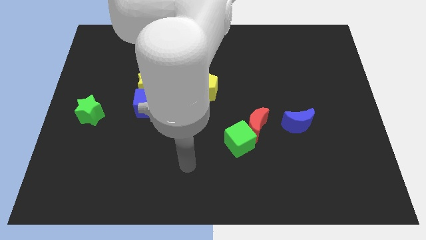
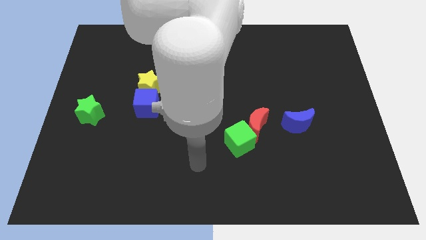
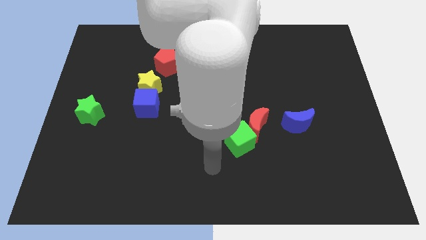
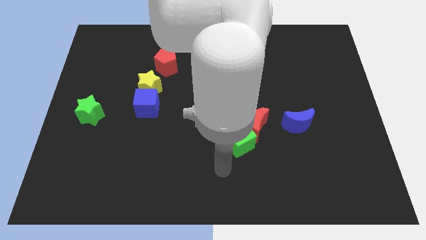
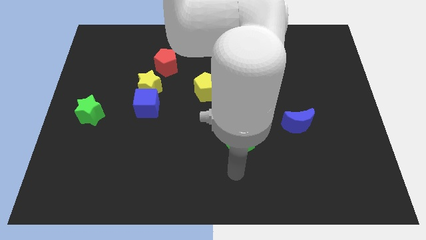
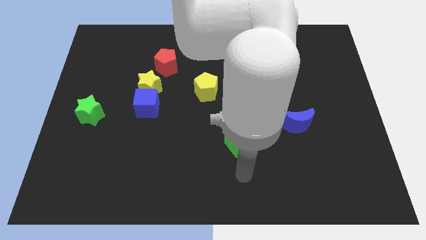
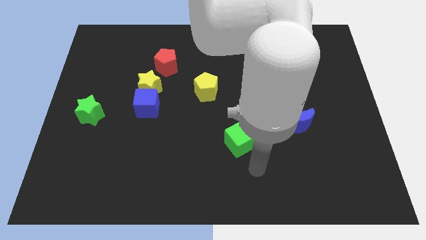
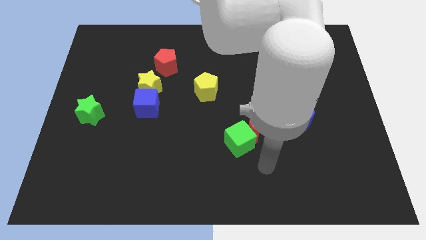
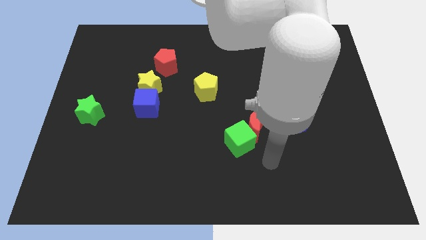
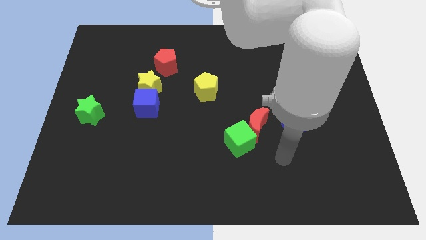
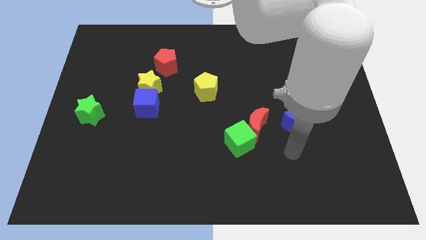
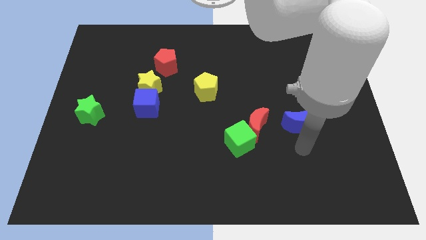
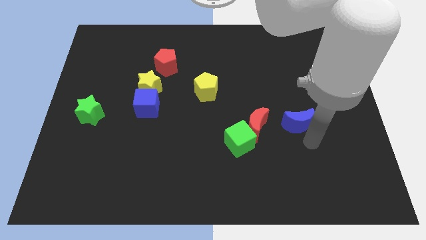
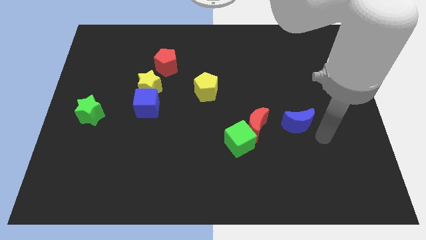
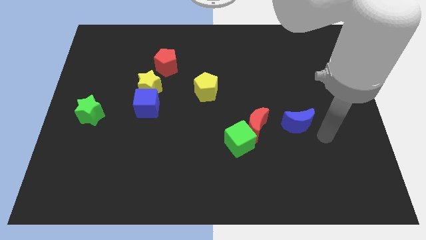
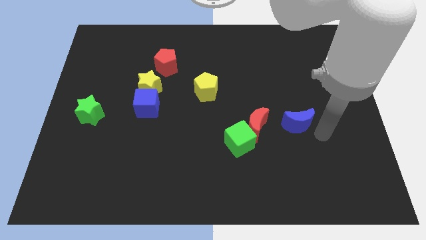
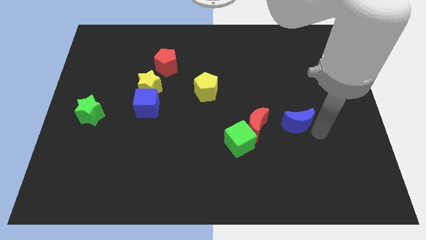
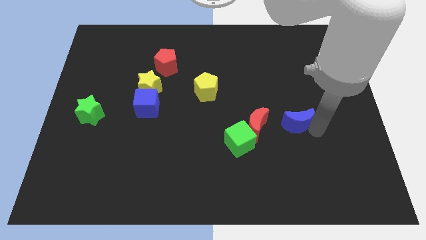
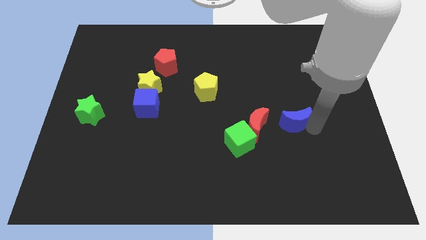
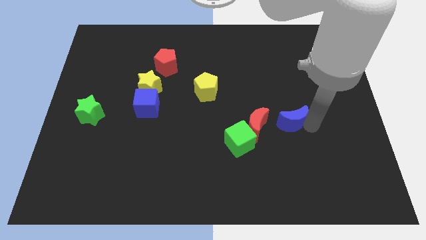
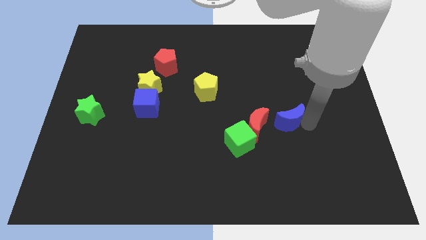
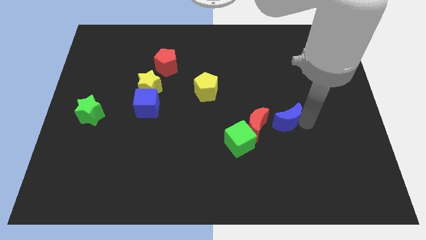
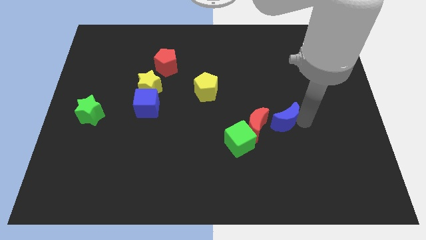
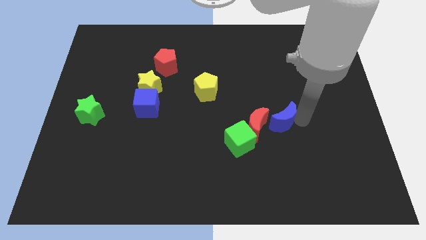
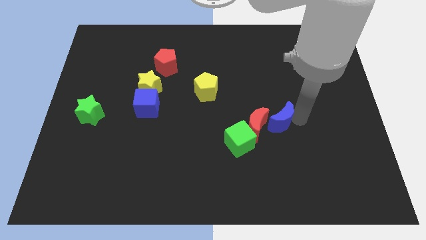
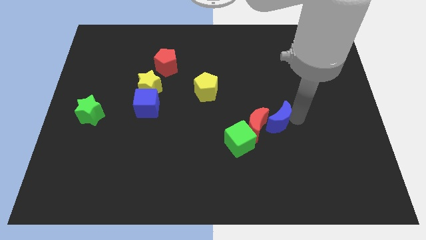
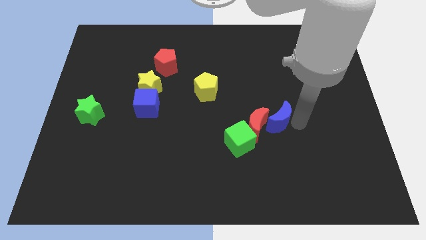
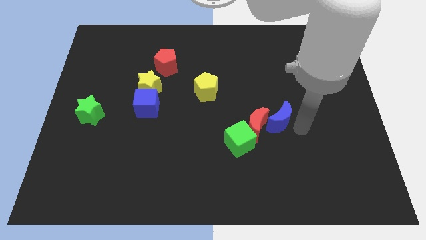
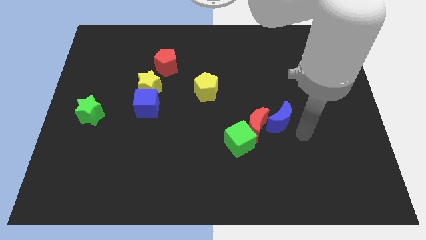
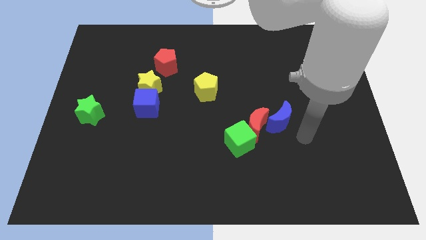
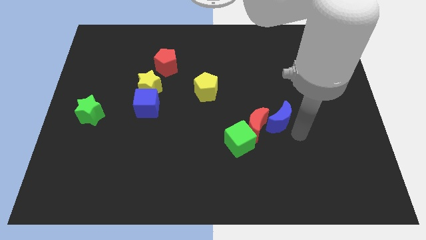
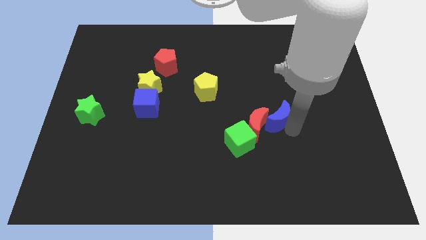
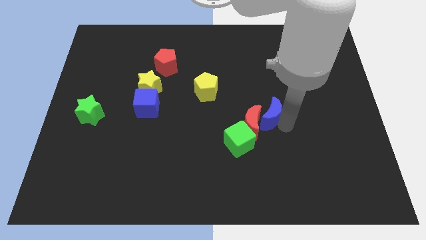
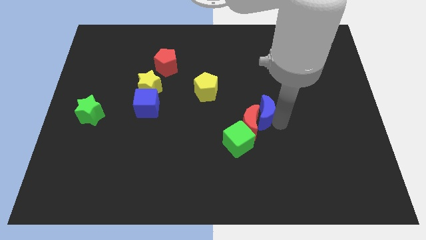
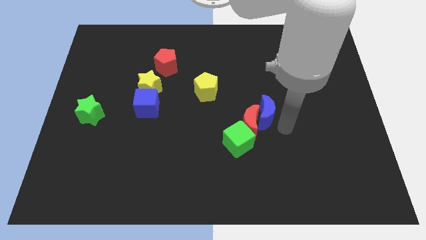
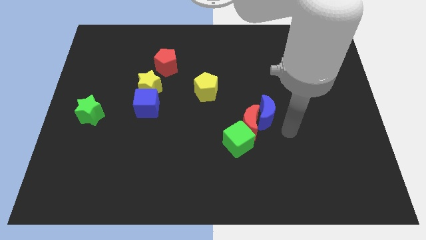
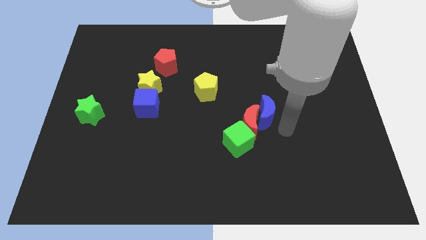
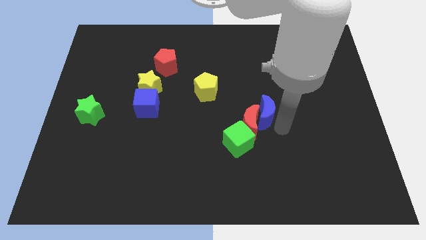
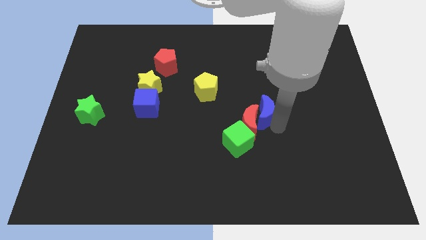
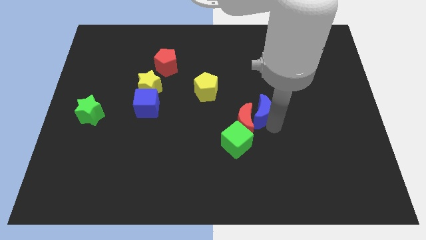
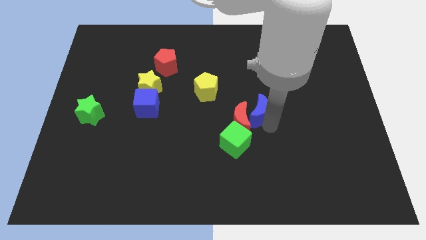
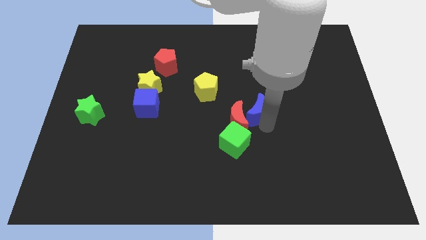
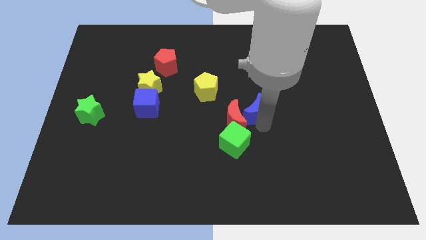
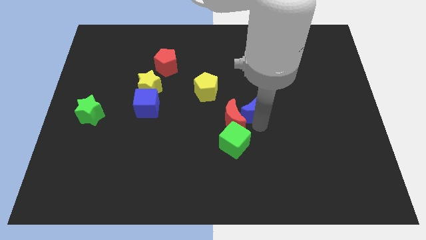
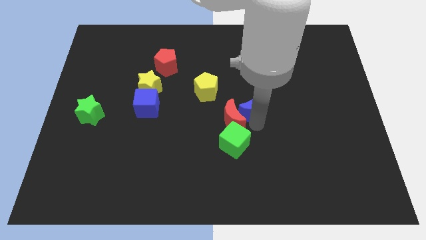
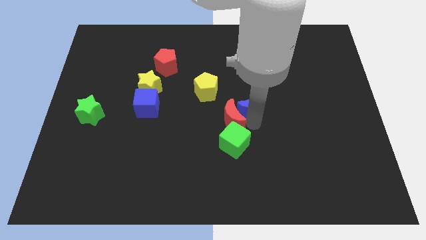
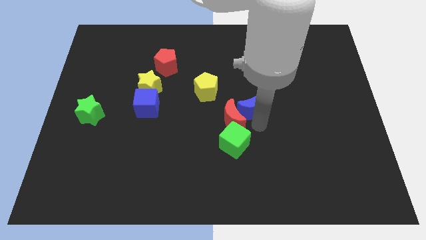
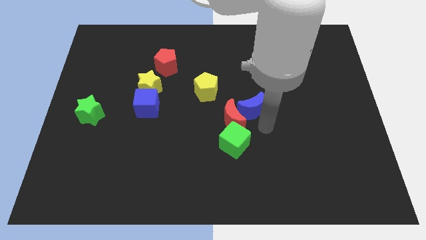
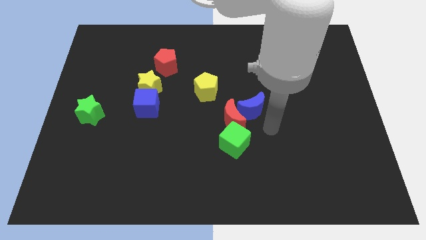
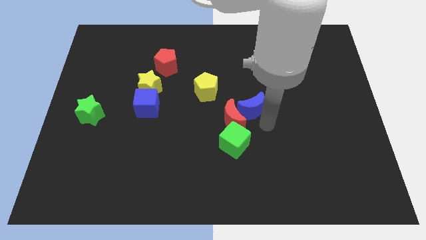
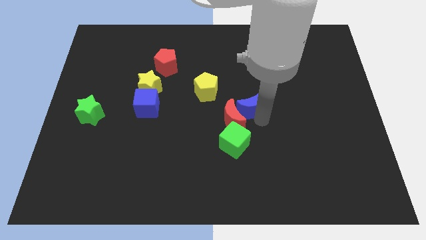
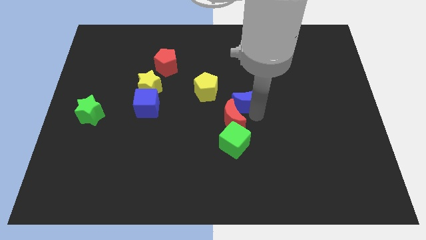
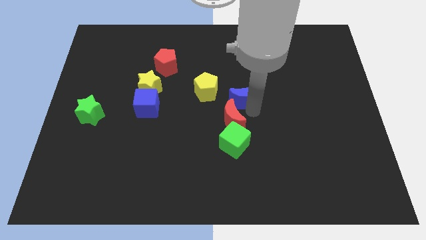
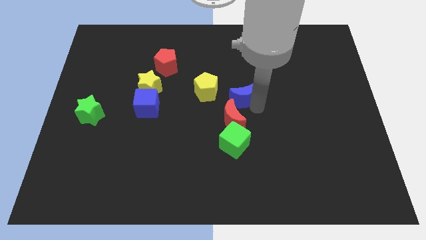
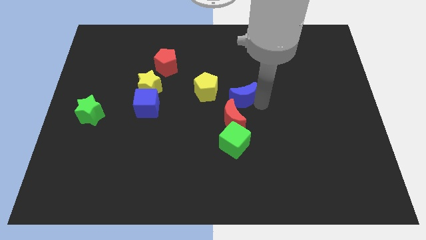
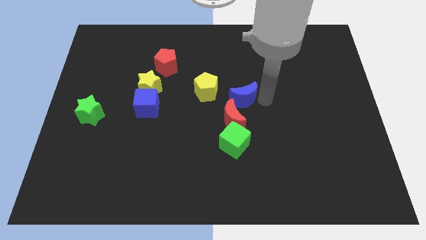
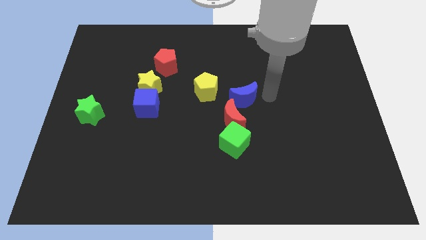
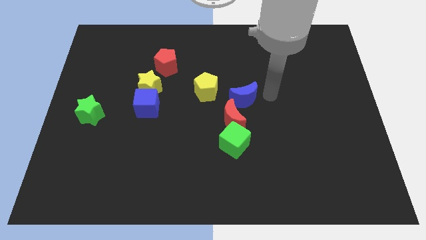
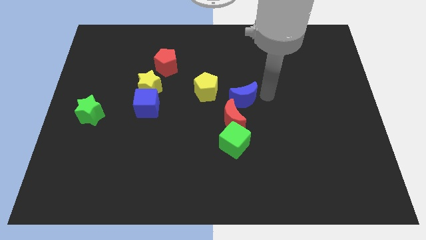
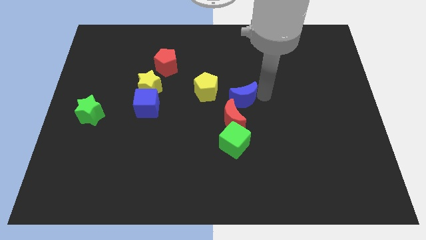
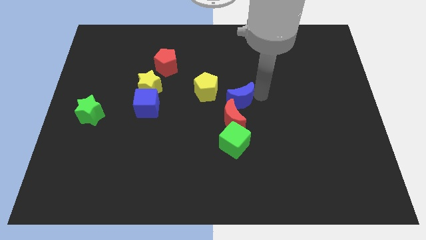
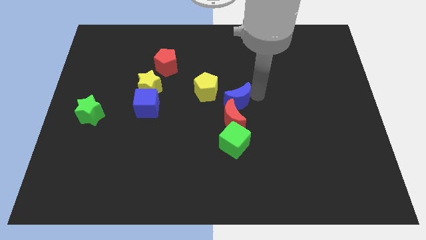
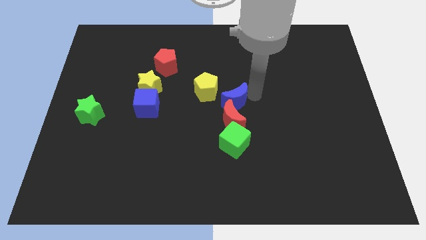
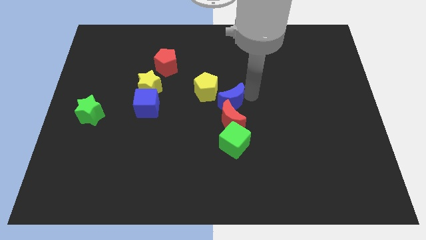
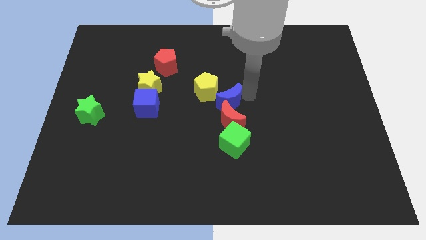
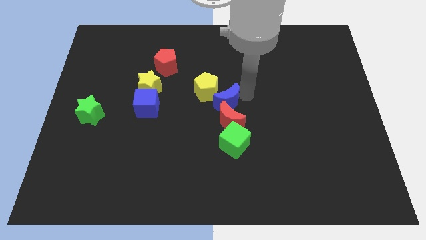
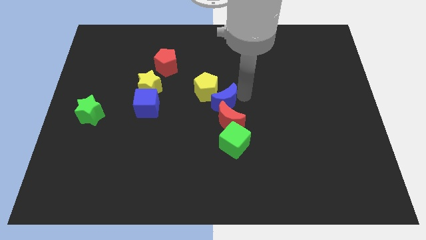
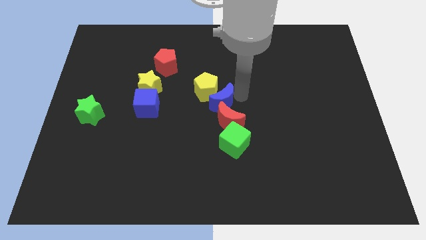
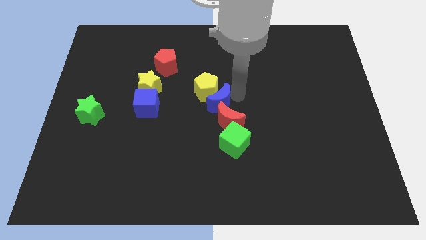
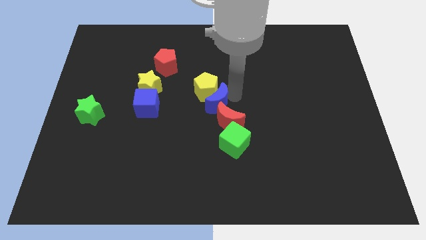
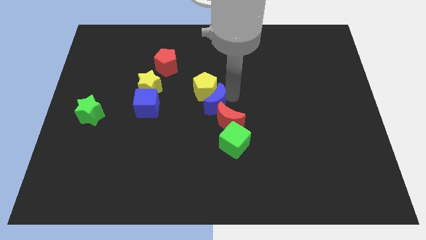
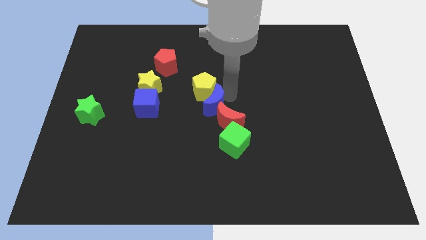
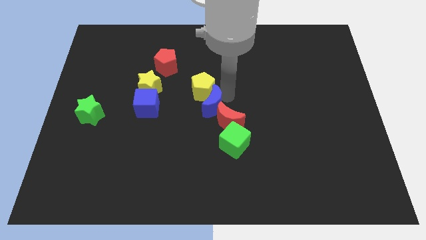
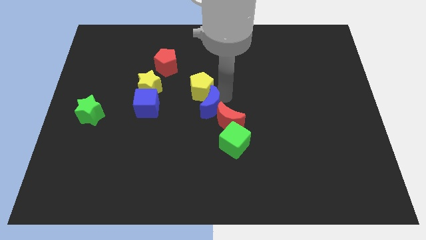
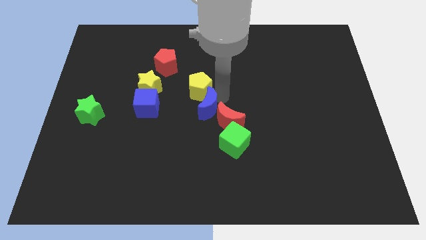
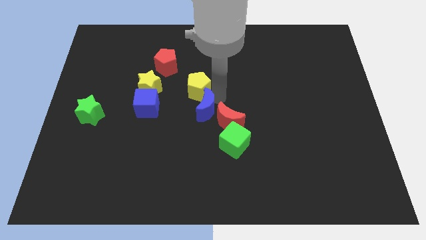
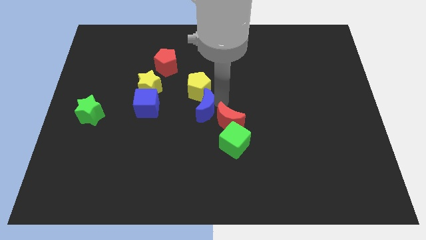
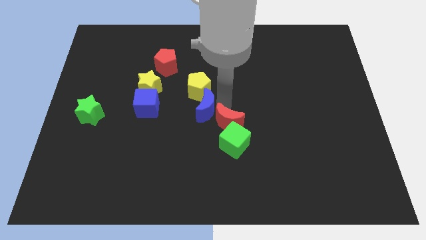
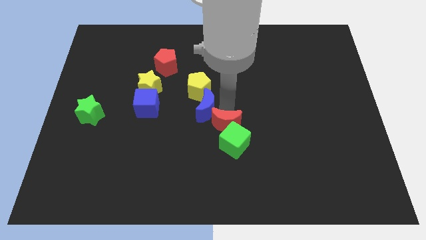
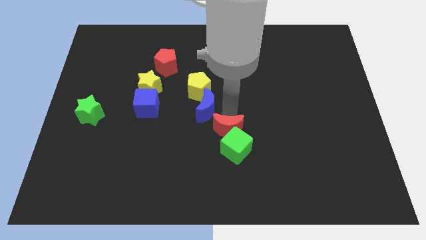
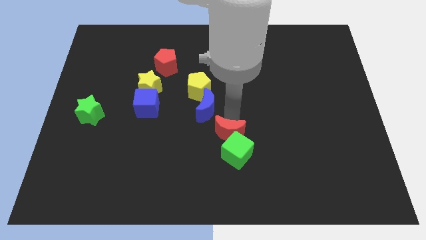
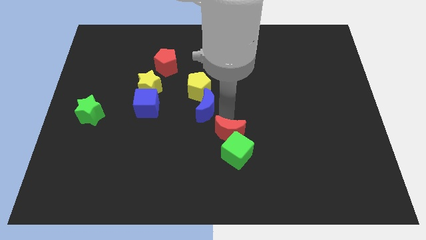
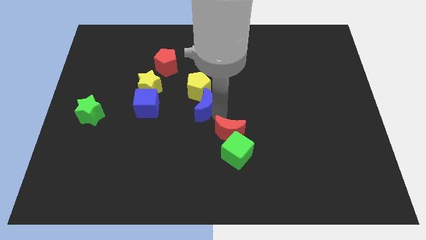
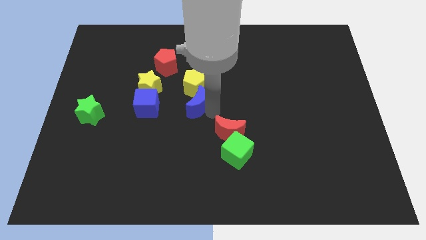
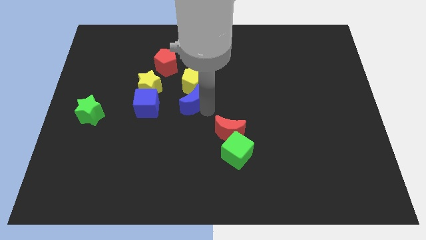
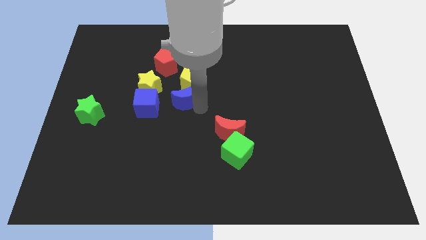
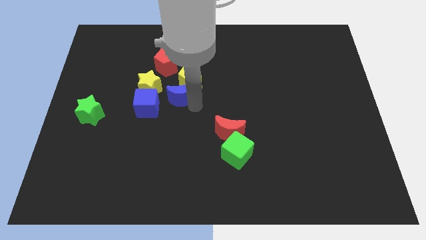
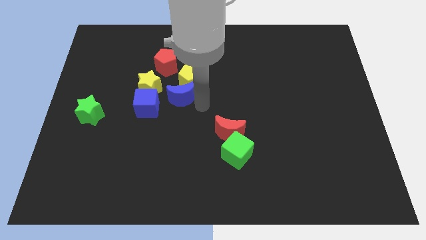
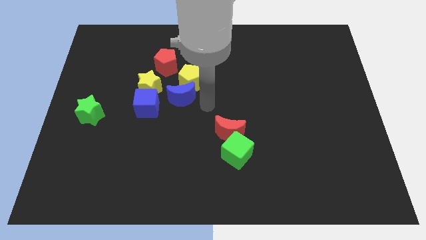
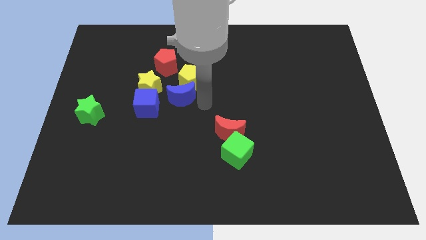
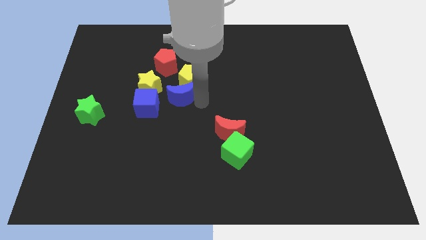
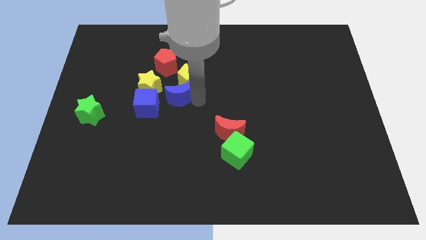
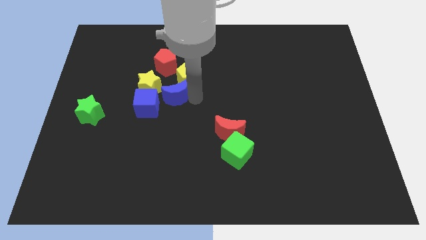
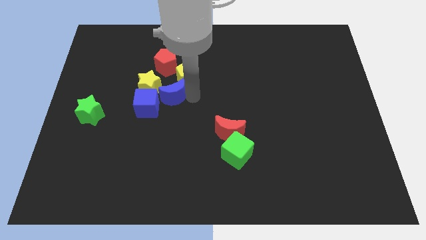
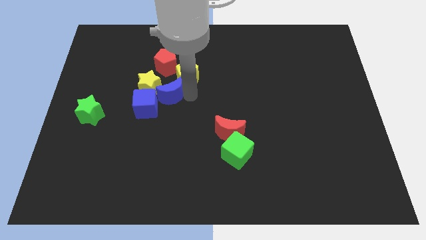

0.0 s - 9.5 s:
slide the blue moon towards the yellow star
